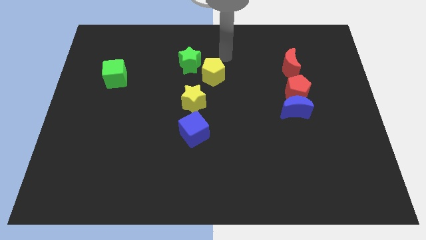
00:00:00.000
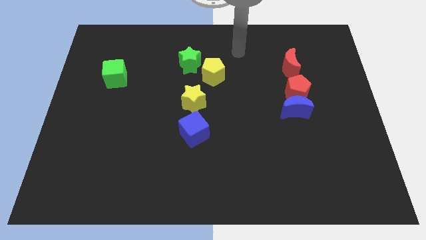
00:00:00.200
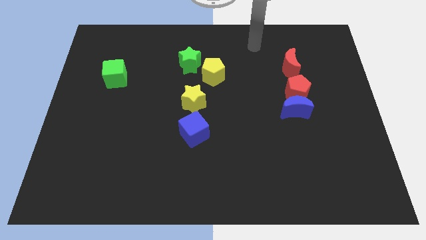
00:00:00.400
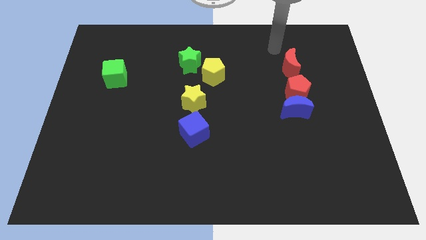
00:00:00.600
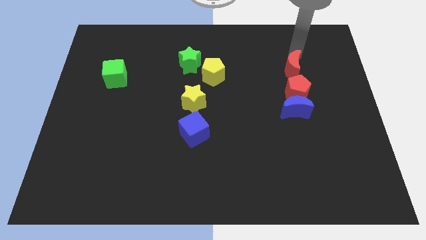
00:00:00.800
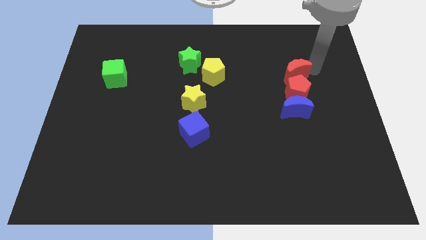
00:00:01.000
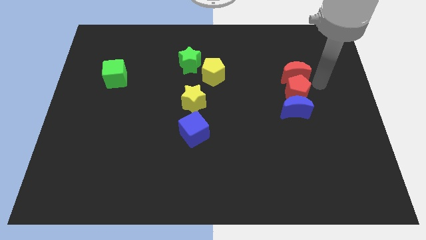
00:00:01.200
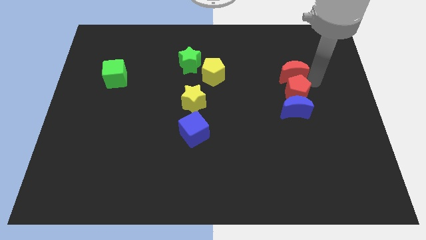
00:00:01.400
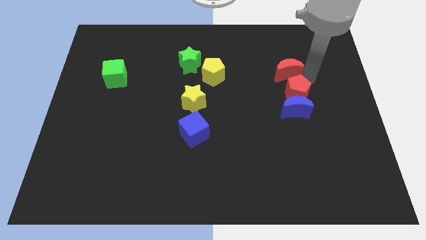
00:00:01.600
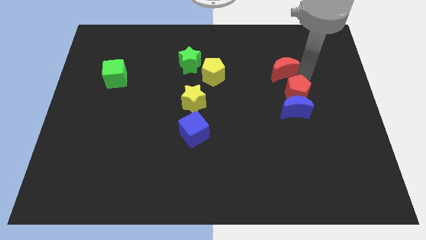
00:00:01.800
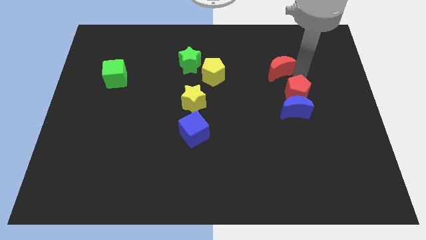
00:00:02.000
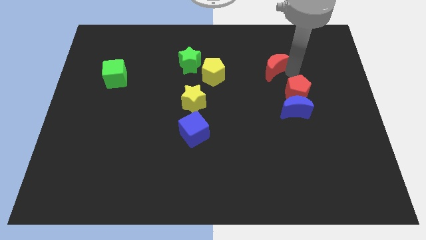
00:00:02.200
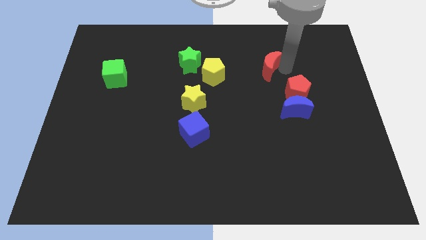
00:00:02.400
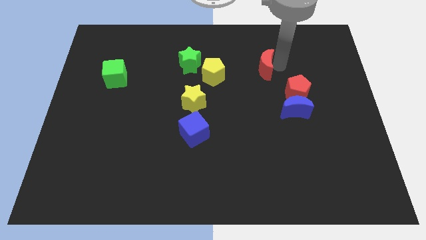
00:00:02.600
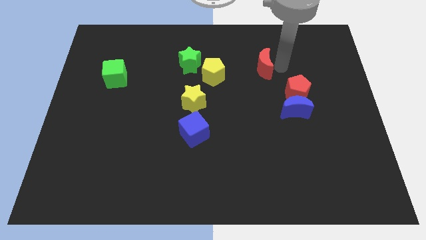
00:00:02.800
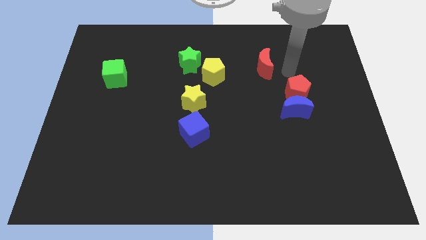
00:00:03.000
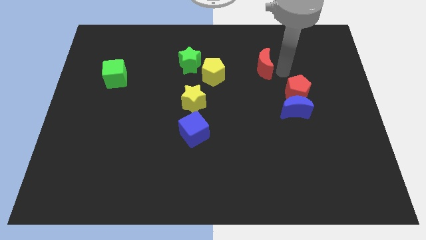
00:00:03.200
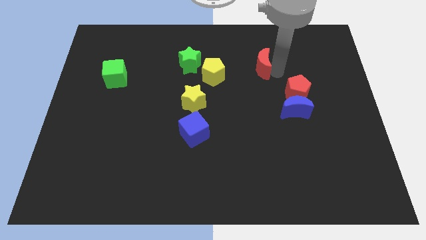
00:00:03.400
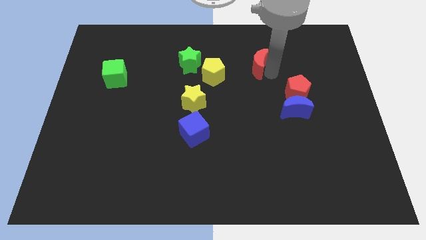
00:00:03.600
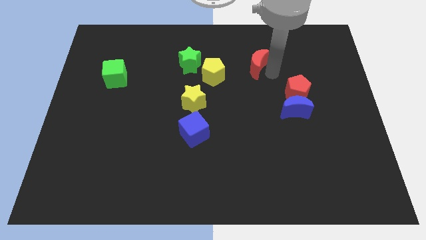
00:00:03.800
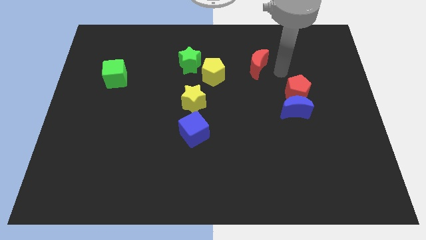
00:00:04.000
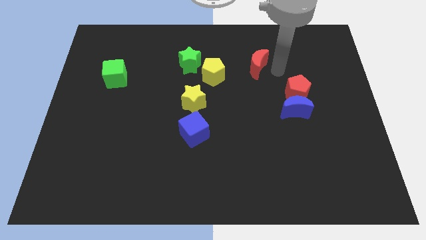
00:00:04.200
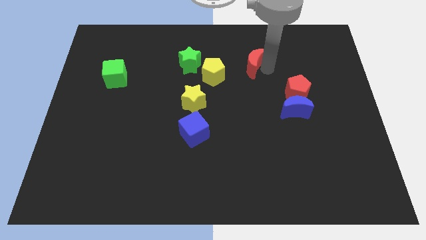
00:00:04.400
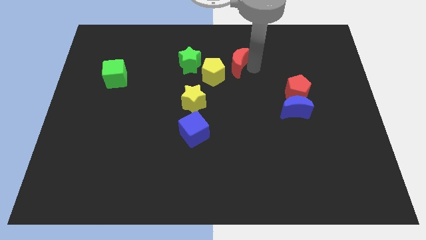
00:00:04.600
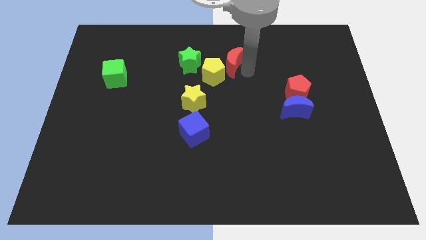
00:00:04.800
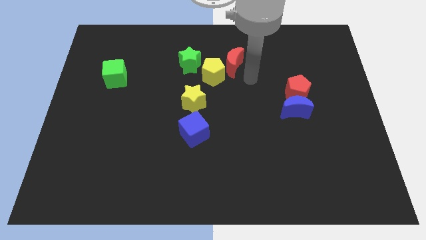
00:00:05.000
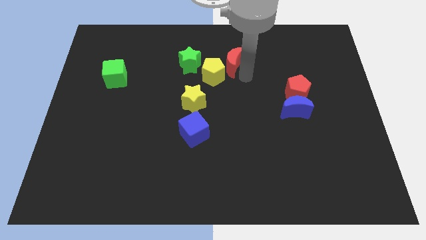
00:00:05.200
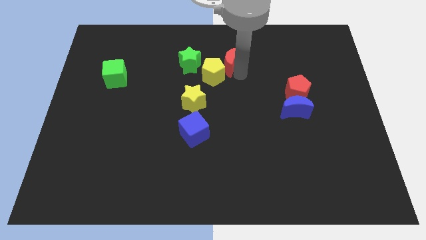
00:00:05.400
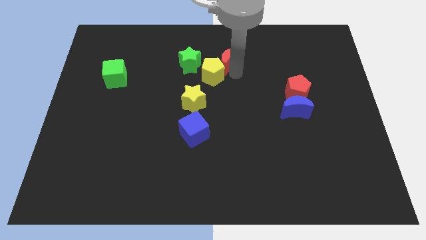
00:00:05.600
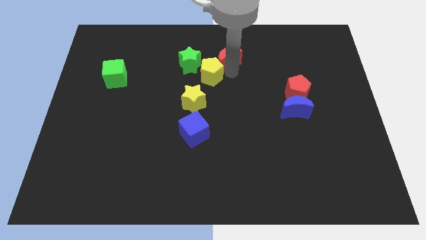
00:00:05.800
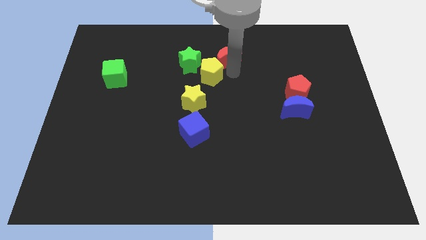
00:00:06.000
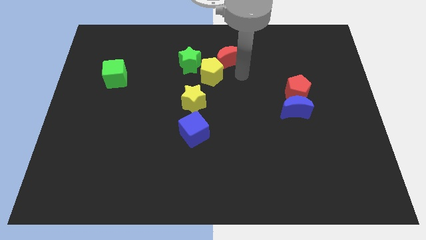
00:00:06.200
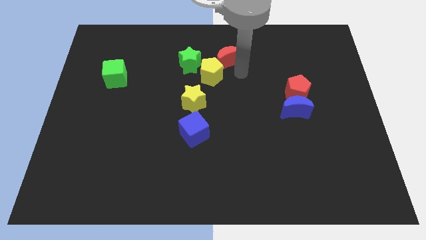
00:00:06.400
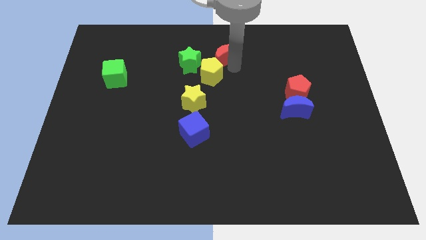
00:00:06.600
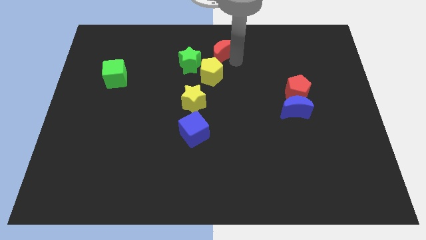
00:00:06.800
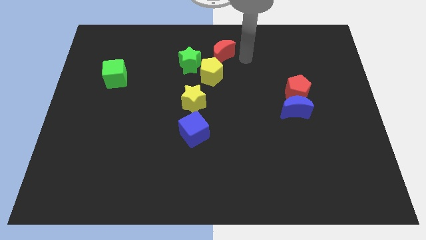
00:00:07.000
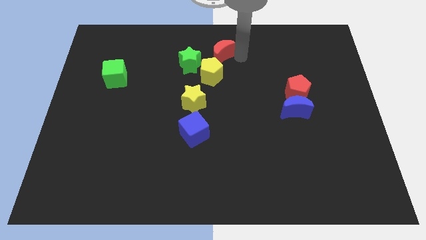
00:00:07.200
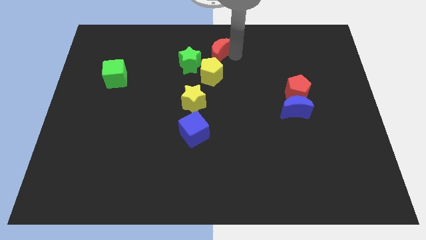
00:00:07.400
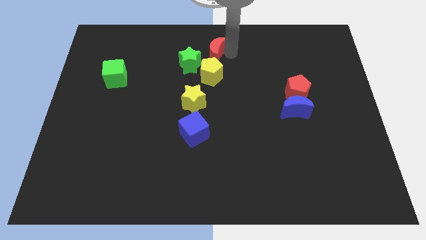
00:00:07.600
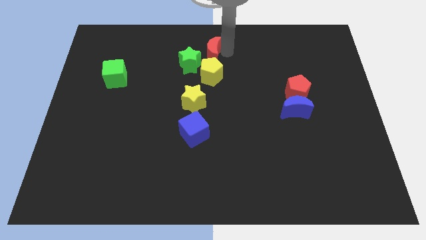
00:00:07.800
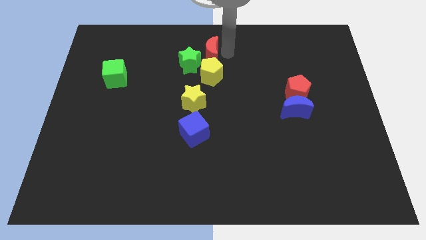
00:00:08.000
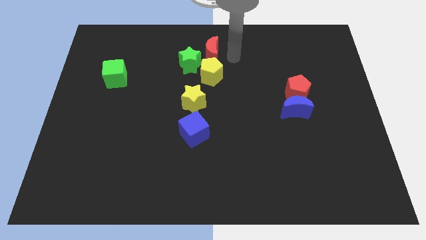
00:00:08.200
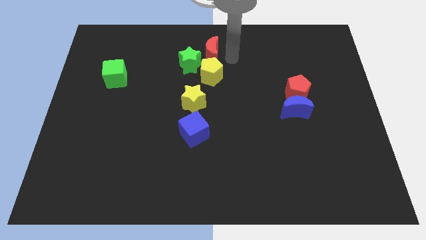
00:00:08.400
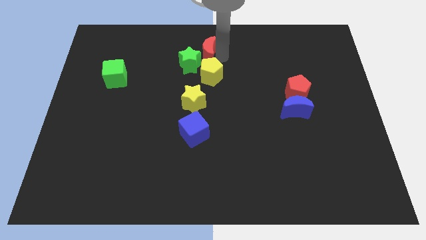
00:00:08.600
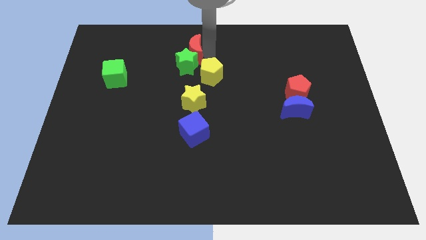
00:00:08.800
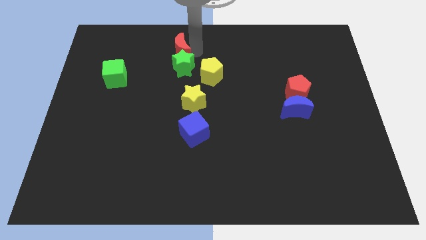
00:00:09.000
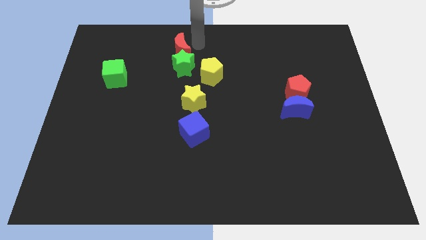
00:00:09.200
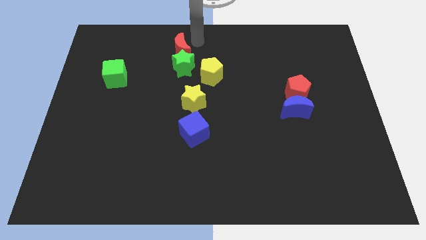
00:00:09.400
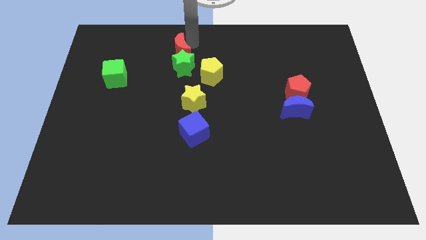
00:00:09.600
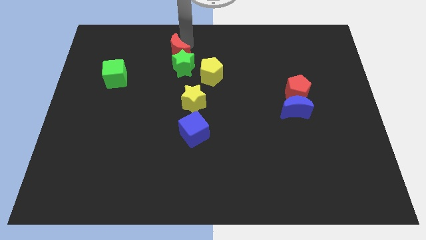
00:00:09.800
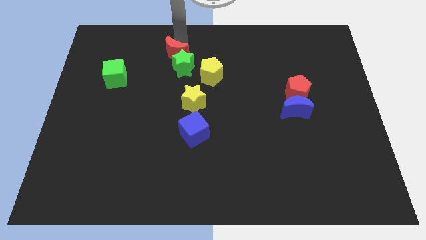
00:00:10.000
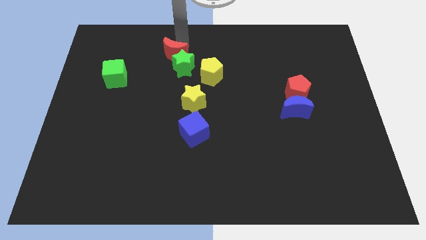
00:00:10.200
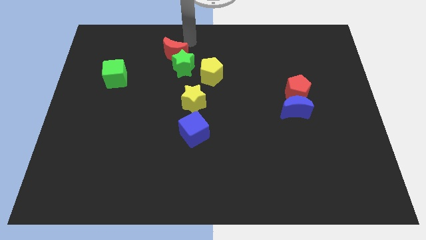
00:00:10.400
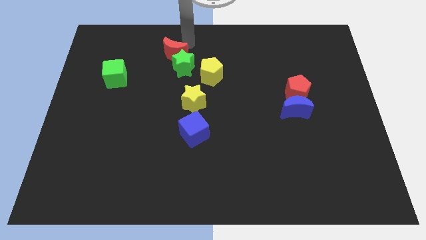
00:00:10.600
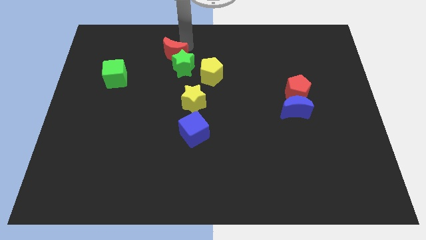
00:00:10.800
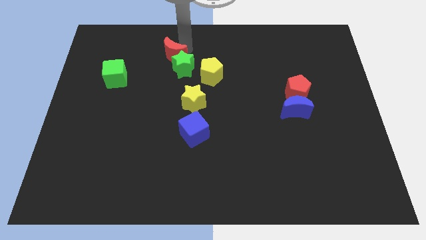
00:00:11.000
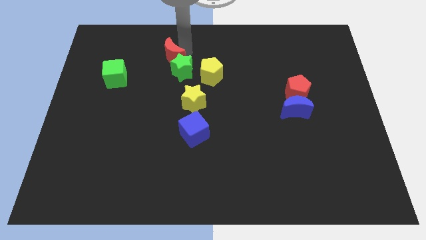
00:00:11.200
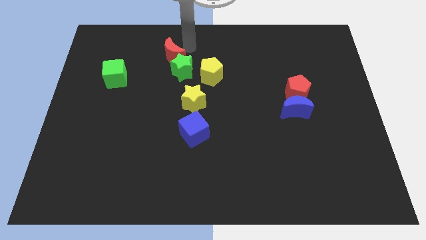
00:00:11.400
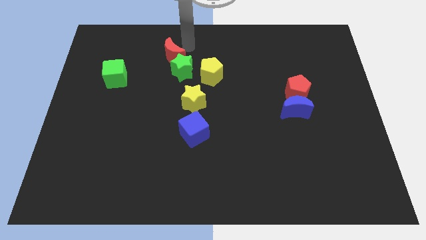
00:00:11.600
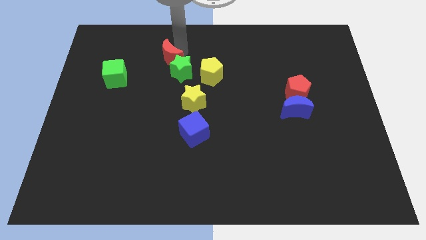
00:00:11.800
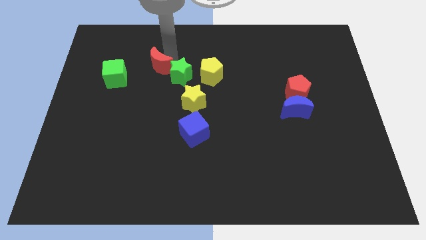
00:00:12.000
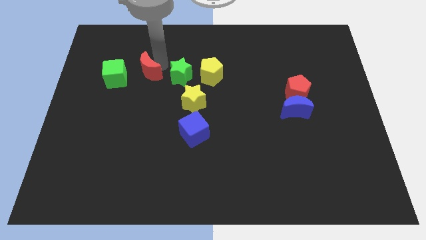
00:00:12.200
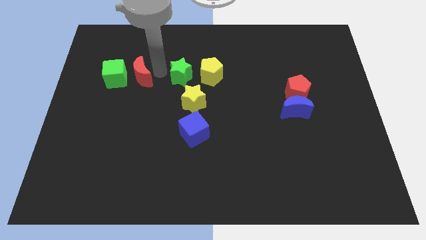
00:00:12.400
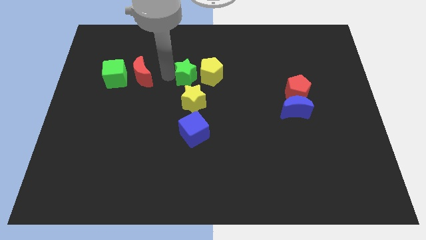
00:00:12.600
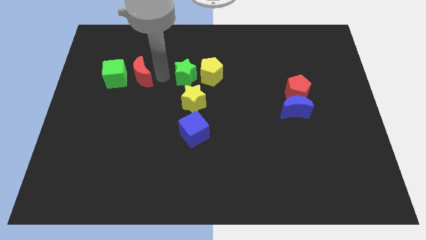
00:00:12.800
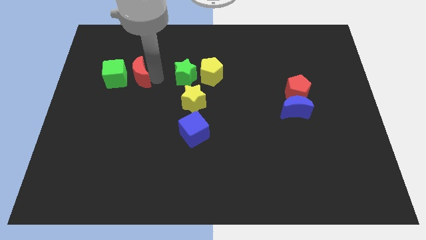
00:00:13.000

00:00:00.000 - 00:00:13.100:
slide the red moon towards the green cube
